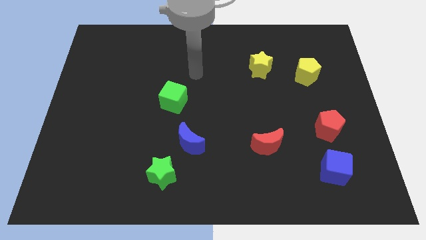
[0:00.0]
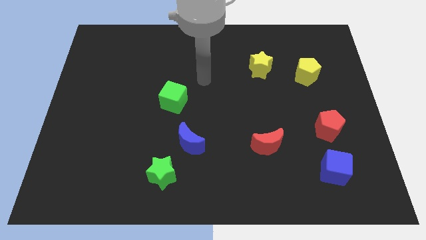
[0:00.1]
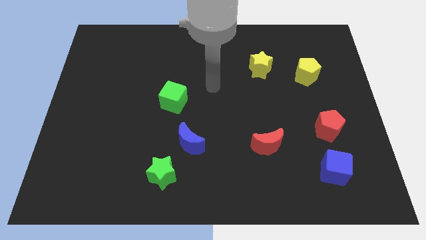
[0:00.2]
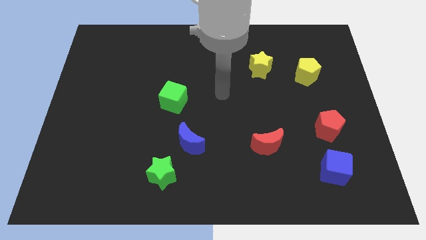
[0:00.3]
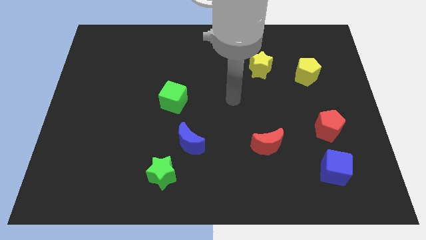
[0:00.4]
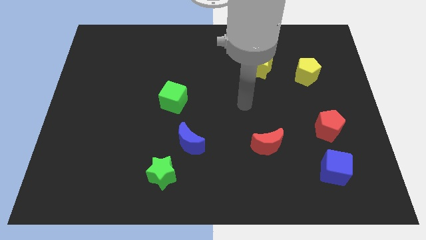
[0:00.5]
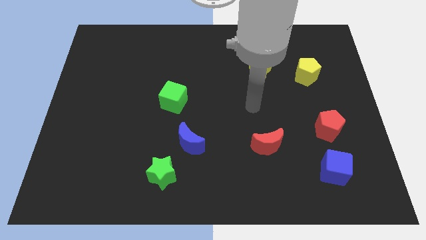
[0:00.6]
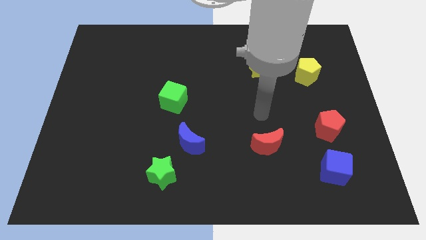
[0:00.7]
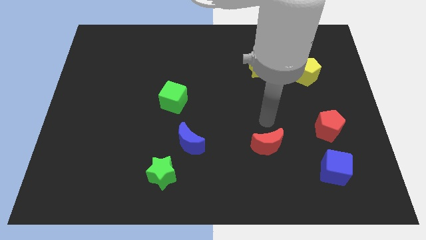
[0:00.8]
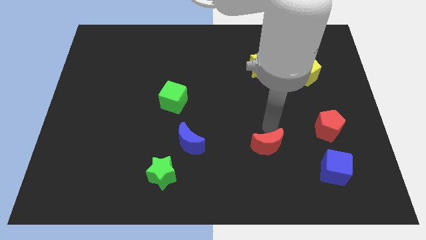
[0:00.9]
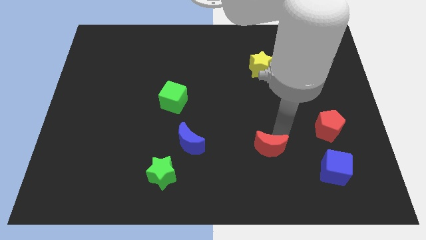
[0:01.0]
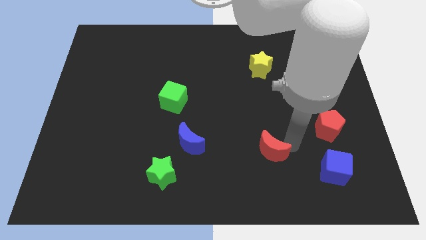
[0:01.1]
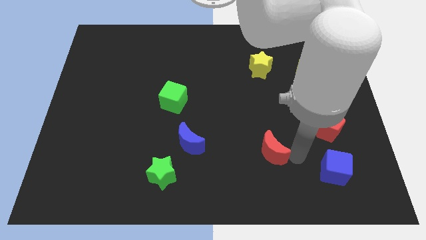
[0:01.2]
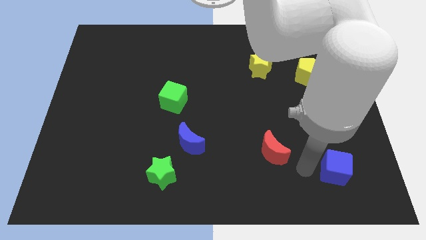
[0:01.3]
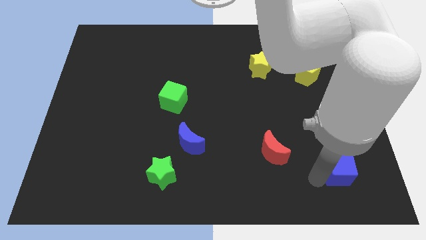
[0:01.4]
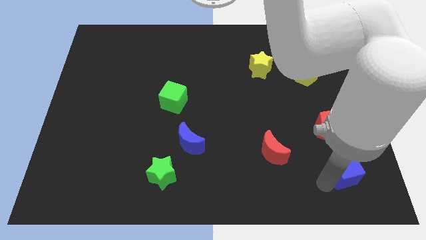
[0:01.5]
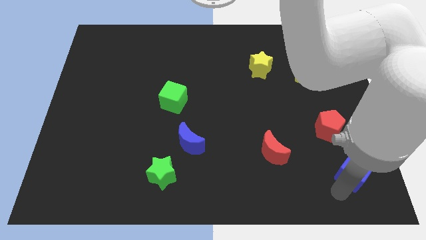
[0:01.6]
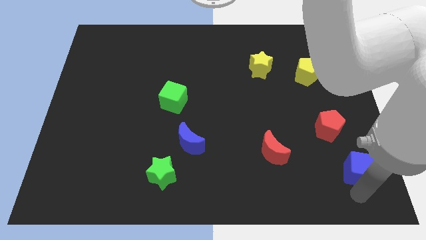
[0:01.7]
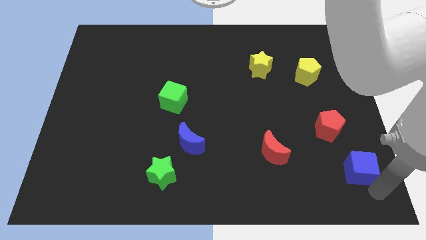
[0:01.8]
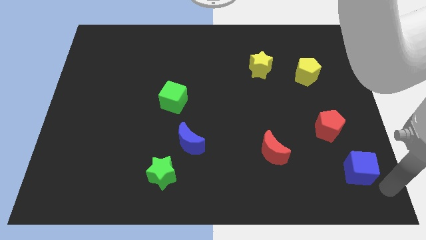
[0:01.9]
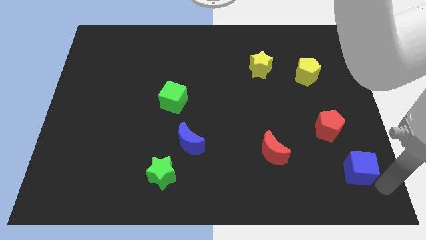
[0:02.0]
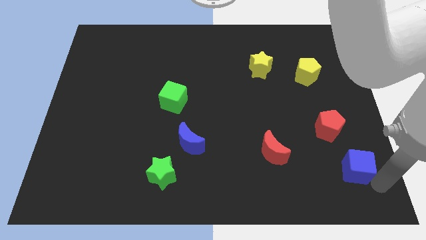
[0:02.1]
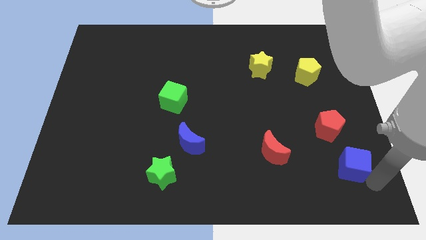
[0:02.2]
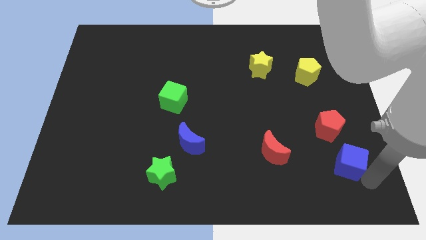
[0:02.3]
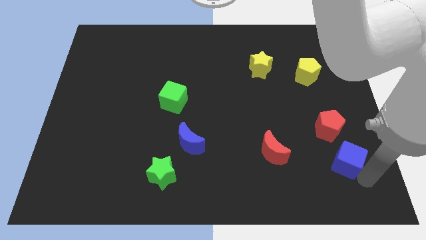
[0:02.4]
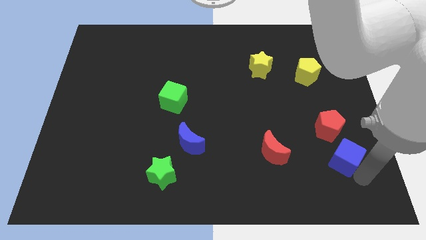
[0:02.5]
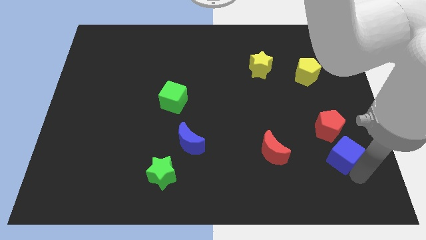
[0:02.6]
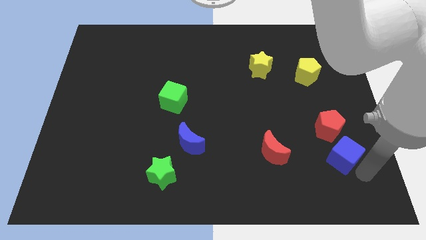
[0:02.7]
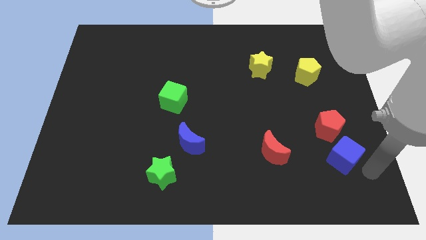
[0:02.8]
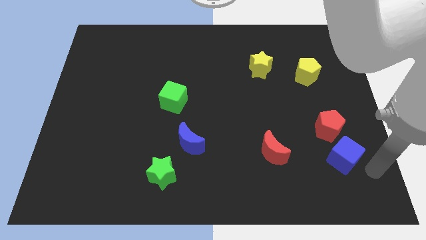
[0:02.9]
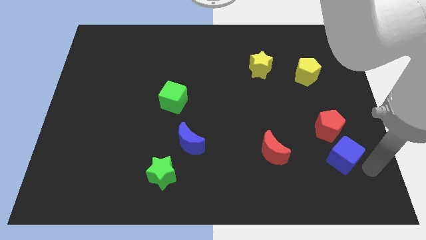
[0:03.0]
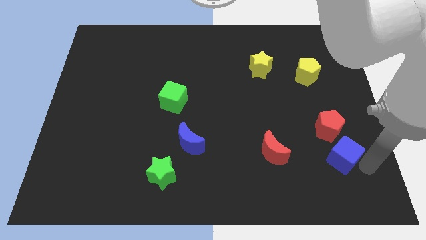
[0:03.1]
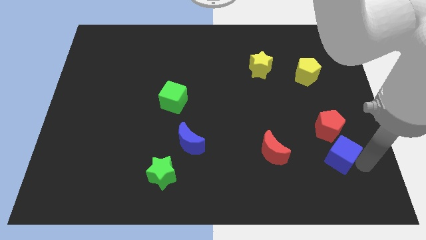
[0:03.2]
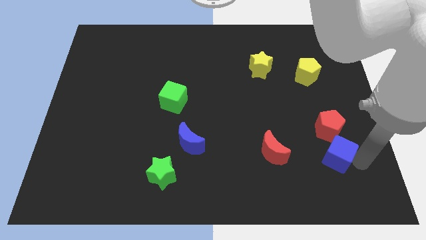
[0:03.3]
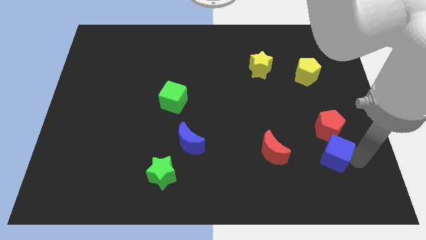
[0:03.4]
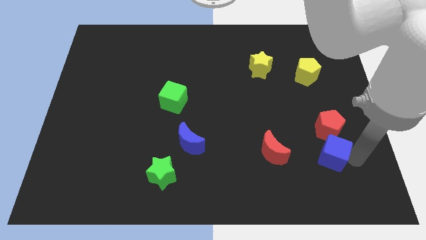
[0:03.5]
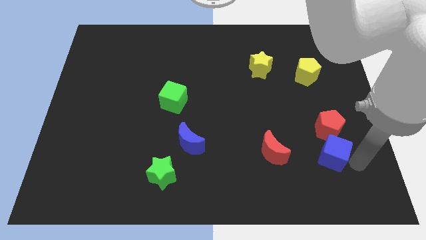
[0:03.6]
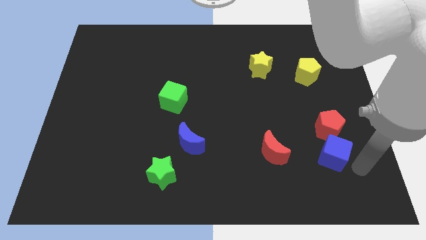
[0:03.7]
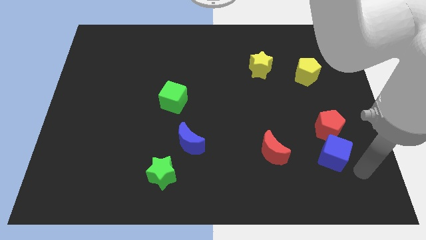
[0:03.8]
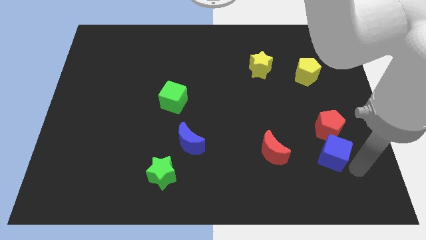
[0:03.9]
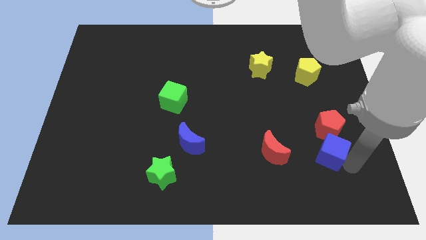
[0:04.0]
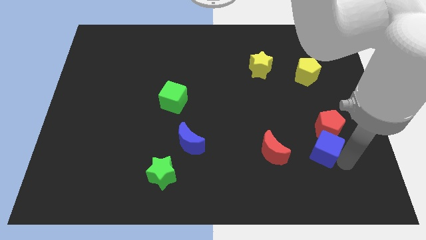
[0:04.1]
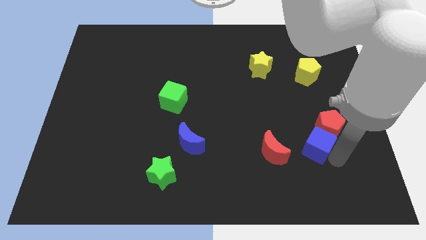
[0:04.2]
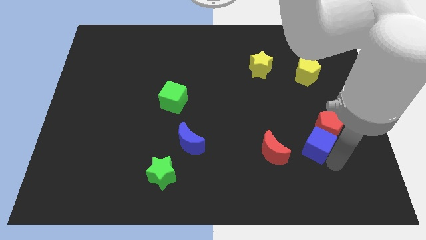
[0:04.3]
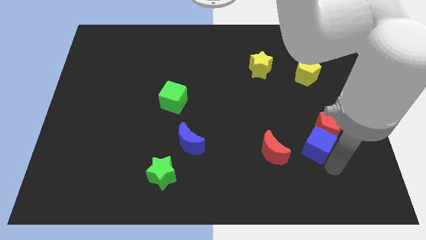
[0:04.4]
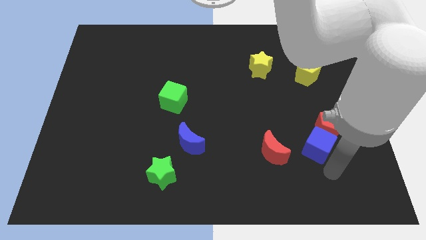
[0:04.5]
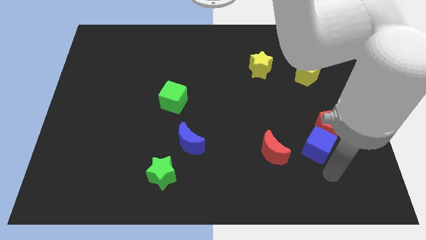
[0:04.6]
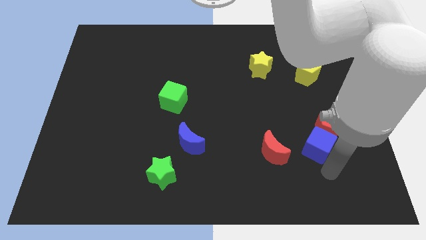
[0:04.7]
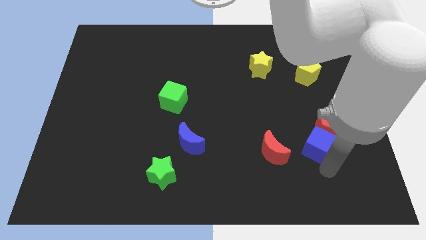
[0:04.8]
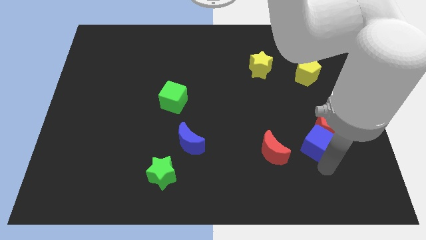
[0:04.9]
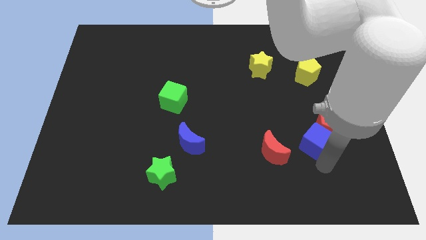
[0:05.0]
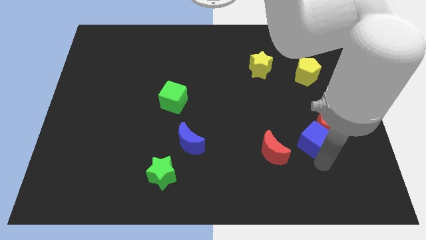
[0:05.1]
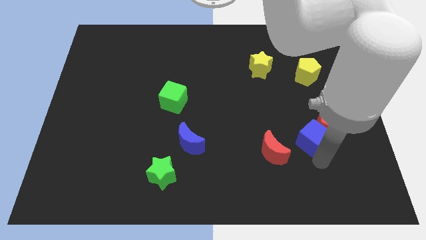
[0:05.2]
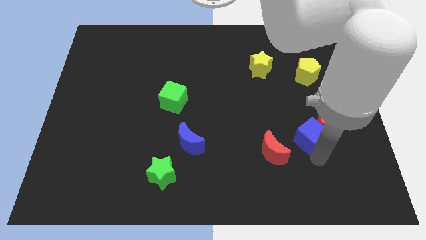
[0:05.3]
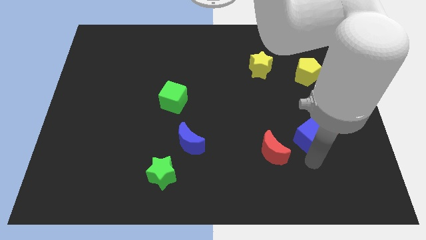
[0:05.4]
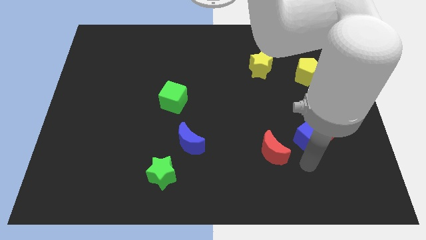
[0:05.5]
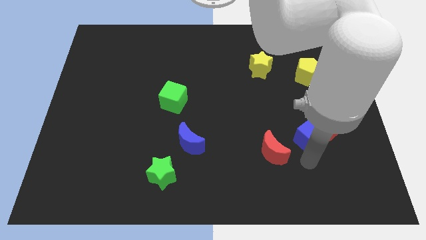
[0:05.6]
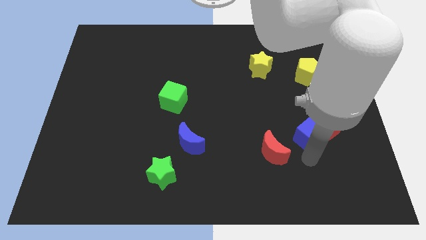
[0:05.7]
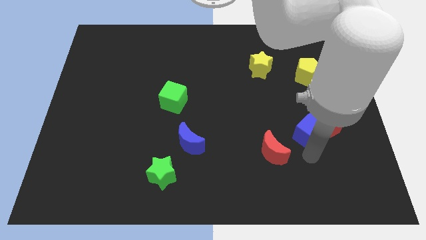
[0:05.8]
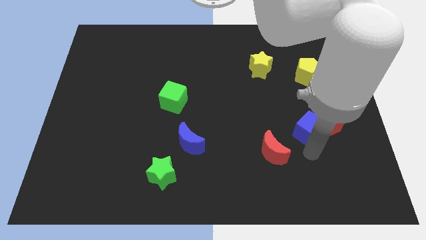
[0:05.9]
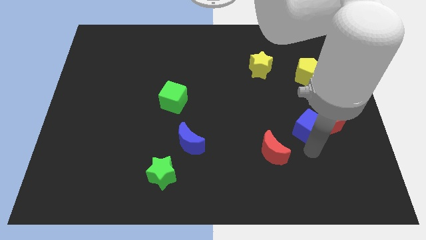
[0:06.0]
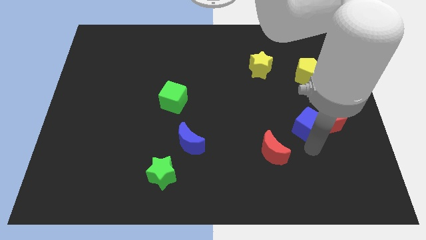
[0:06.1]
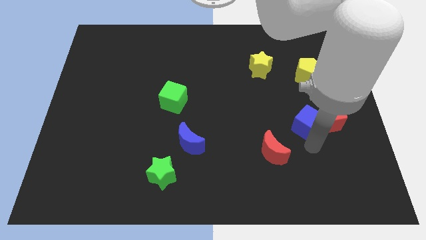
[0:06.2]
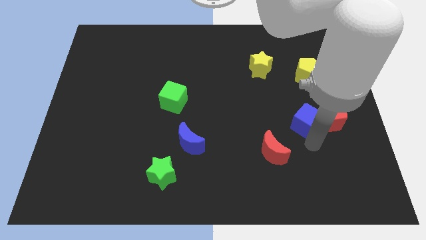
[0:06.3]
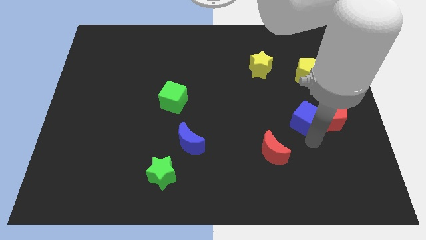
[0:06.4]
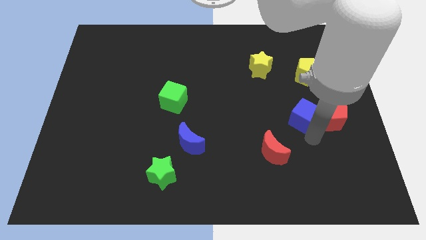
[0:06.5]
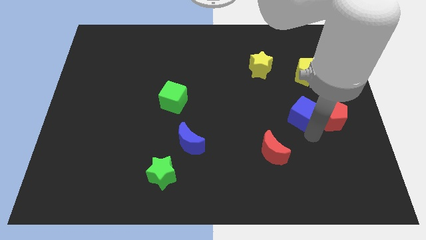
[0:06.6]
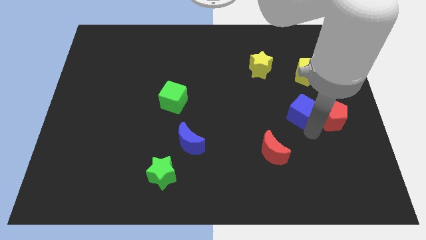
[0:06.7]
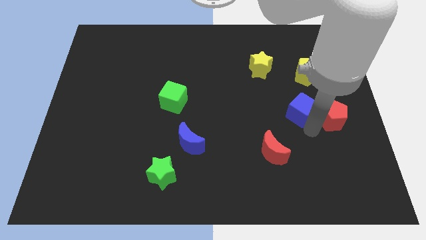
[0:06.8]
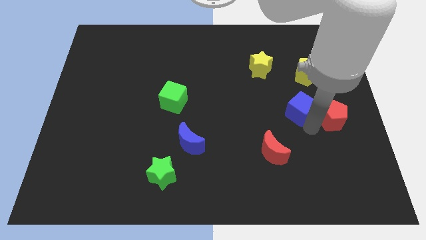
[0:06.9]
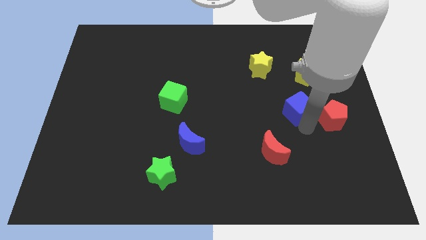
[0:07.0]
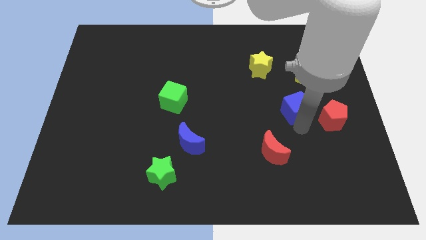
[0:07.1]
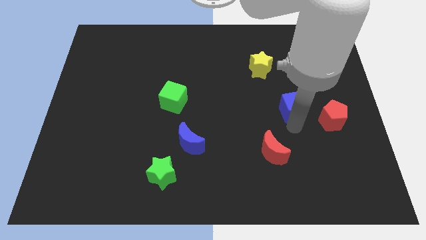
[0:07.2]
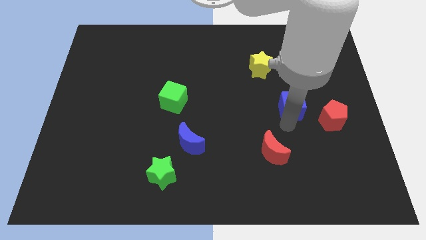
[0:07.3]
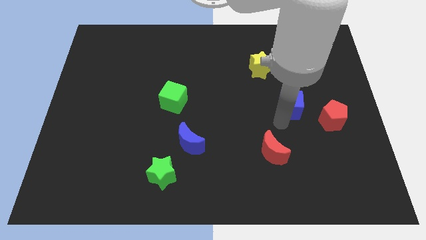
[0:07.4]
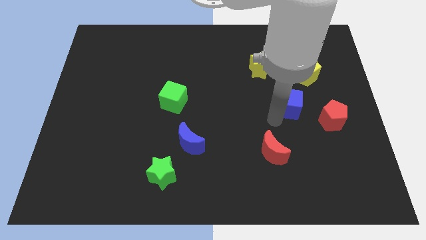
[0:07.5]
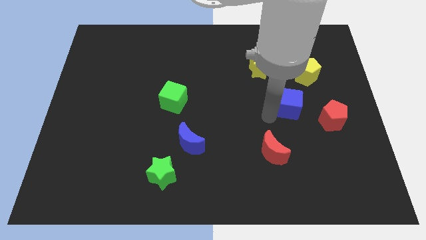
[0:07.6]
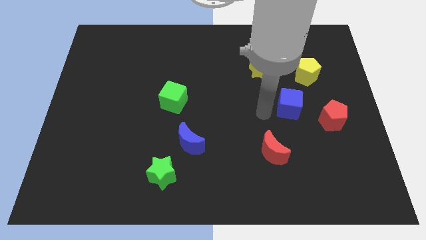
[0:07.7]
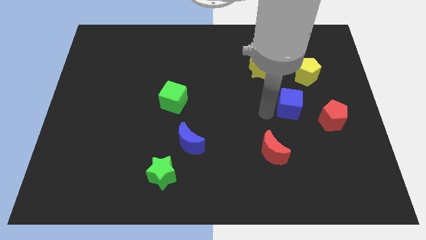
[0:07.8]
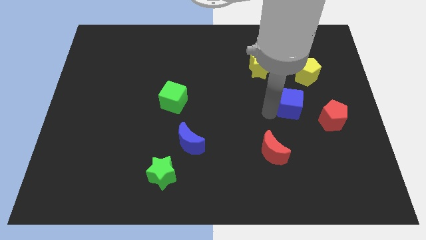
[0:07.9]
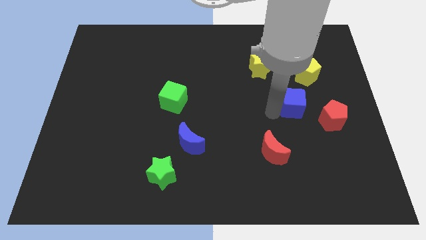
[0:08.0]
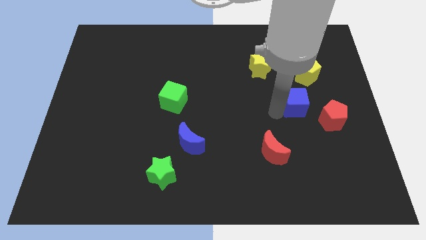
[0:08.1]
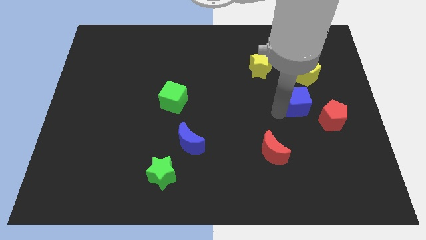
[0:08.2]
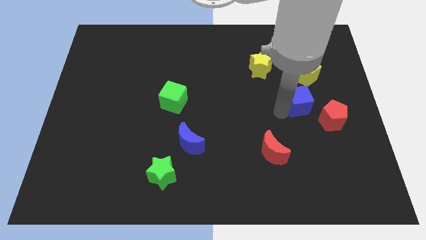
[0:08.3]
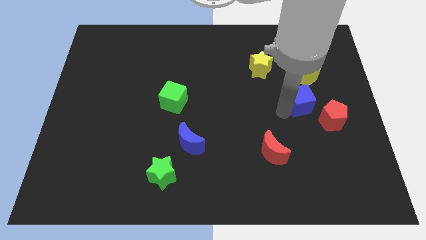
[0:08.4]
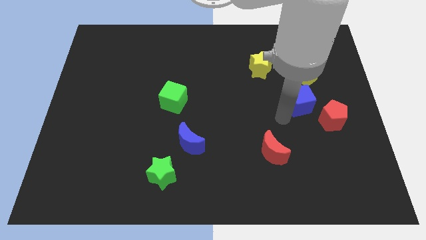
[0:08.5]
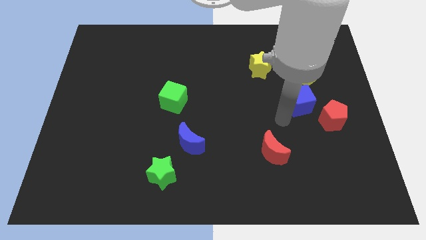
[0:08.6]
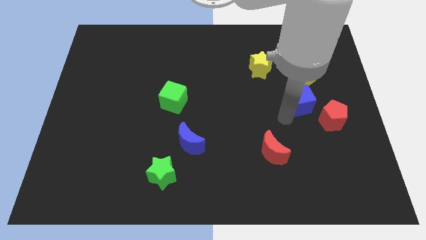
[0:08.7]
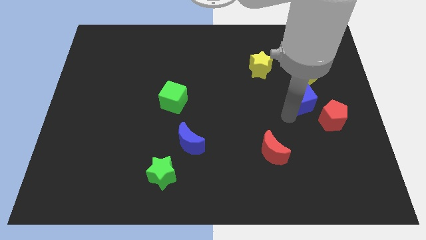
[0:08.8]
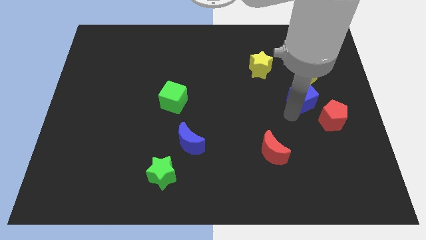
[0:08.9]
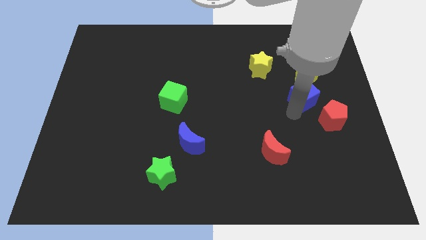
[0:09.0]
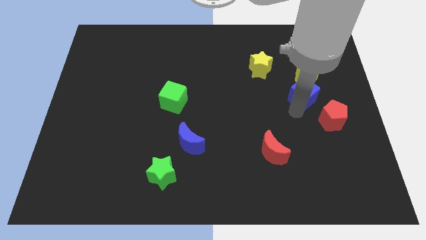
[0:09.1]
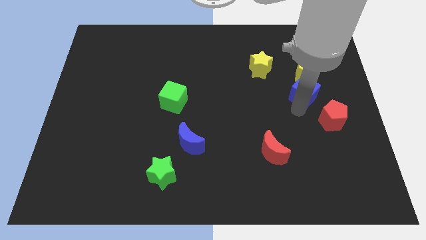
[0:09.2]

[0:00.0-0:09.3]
slide the blue cube up
